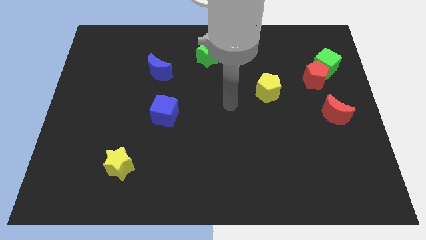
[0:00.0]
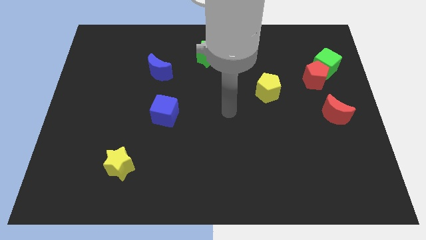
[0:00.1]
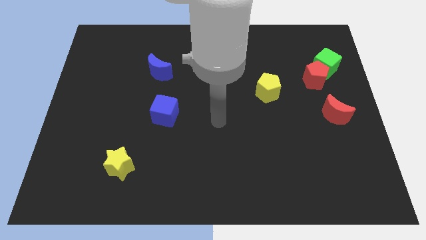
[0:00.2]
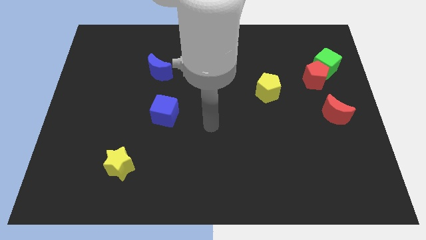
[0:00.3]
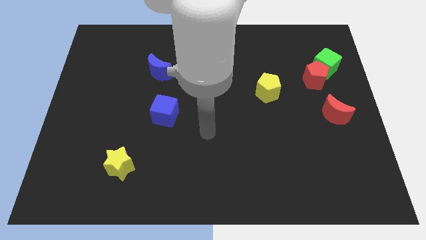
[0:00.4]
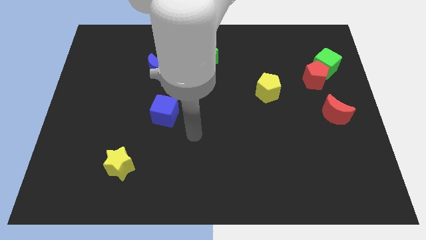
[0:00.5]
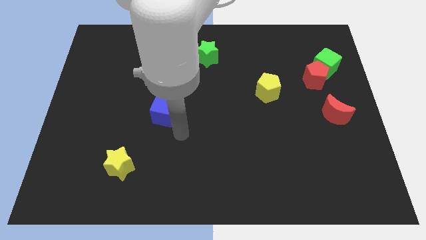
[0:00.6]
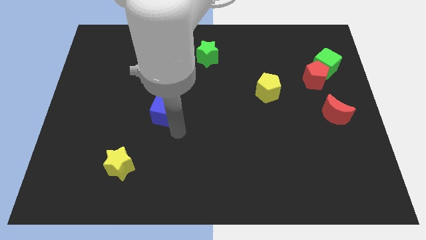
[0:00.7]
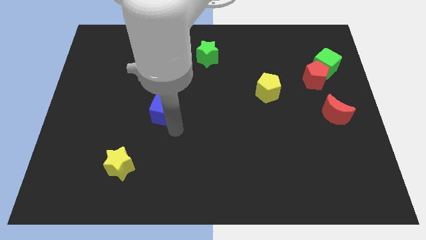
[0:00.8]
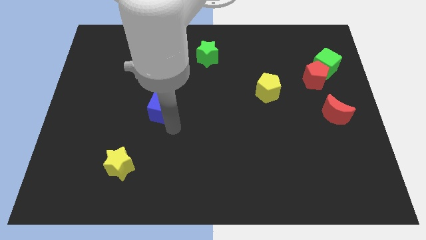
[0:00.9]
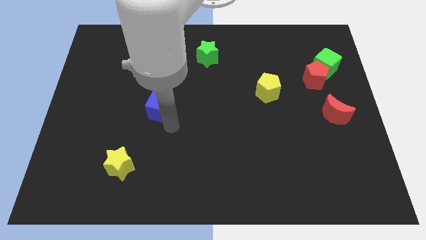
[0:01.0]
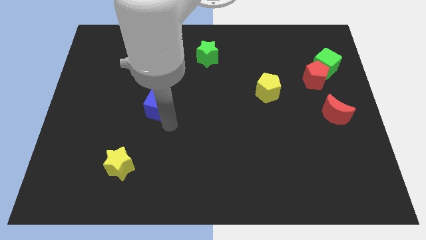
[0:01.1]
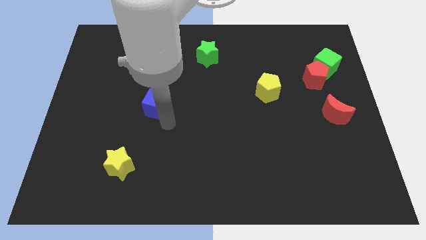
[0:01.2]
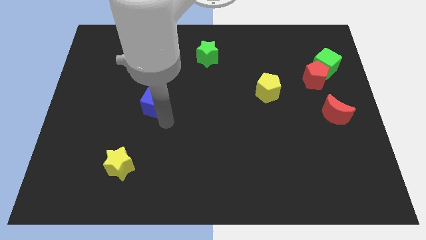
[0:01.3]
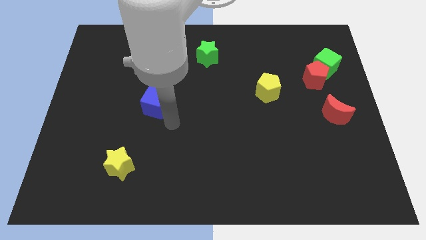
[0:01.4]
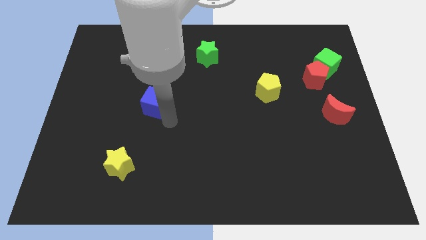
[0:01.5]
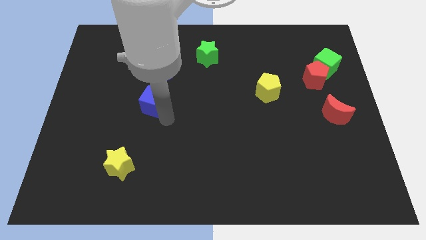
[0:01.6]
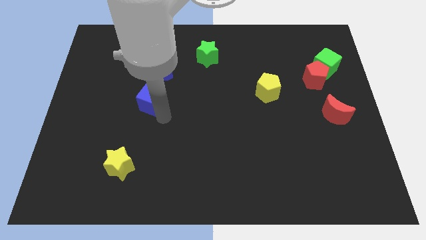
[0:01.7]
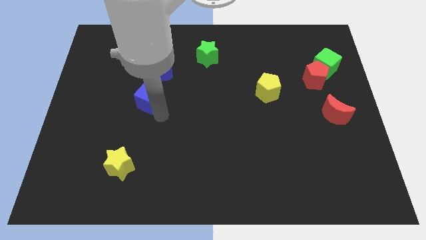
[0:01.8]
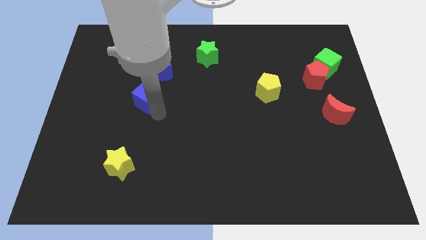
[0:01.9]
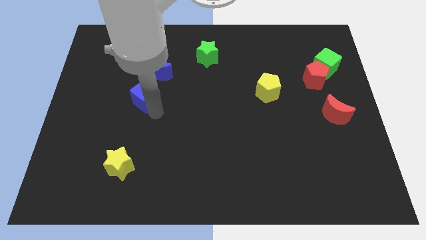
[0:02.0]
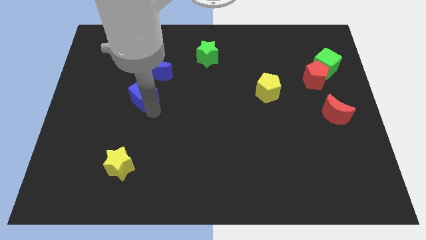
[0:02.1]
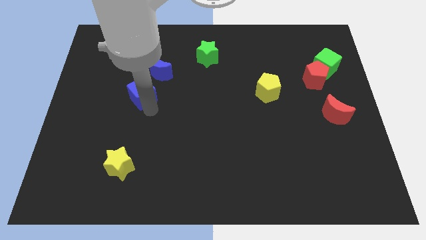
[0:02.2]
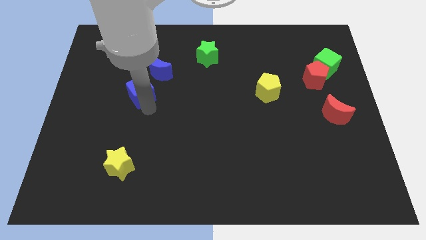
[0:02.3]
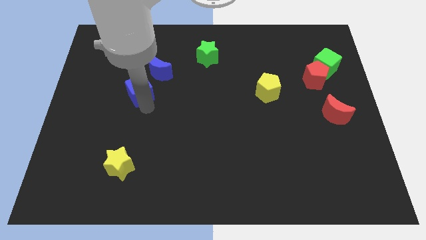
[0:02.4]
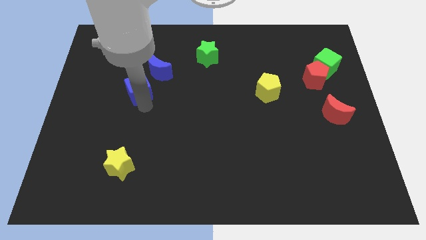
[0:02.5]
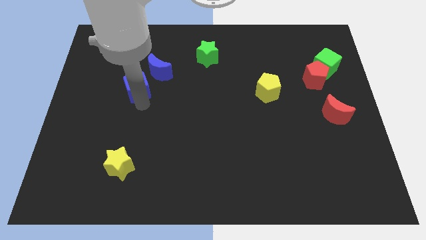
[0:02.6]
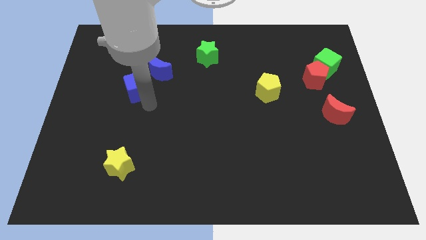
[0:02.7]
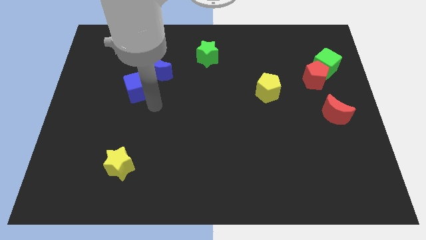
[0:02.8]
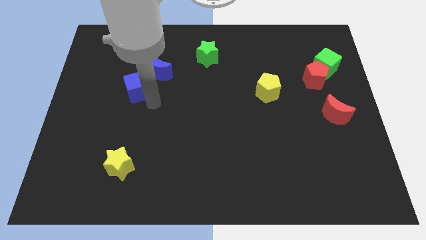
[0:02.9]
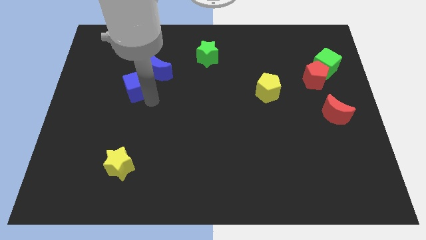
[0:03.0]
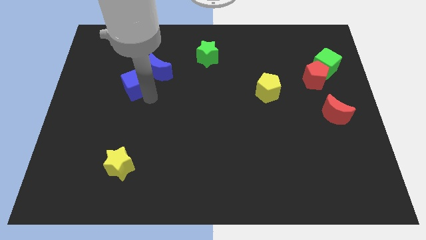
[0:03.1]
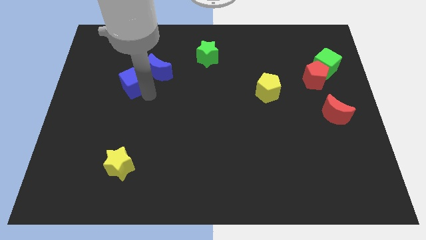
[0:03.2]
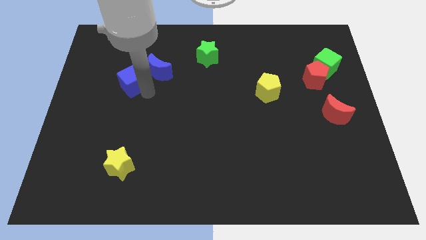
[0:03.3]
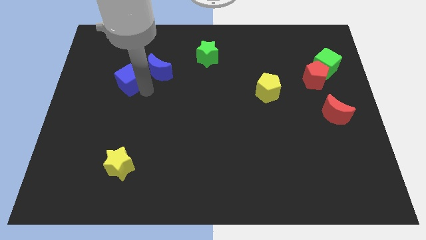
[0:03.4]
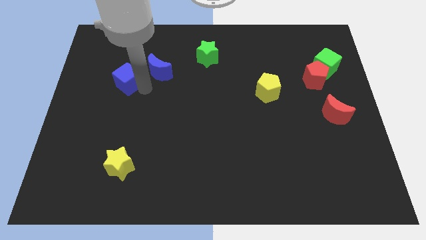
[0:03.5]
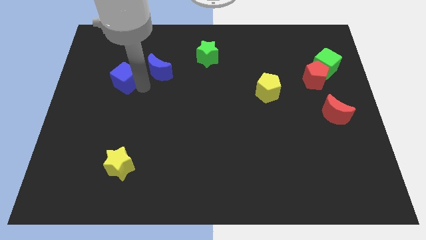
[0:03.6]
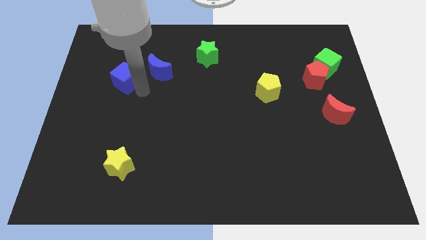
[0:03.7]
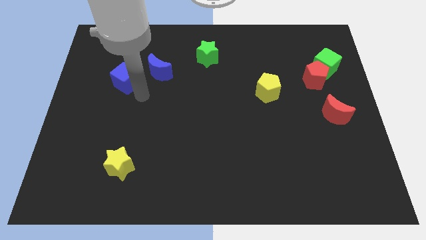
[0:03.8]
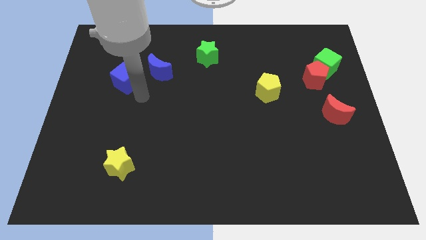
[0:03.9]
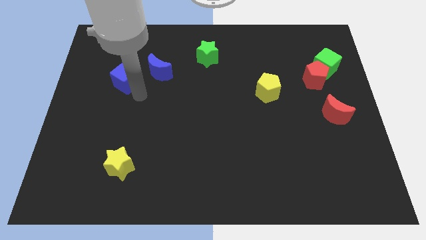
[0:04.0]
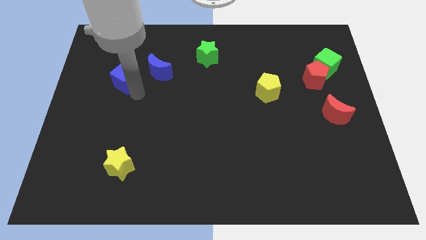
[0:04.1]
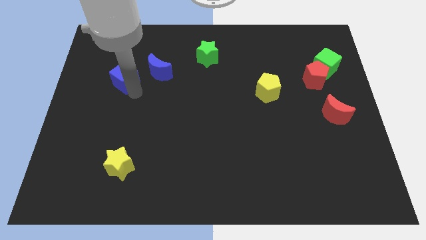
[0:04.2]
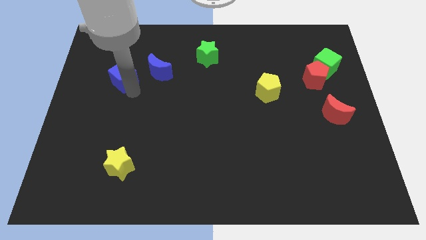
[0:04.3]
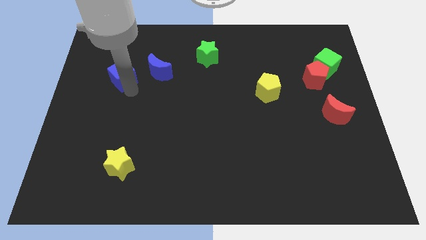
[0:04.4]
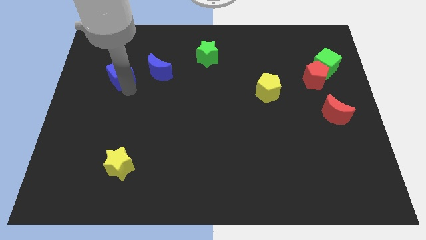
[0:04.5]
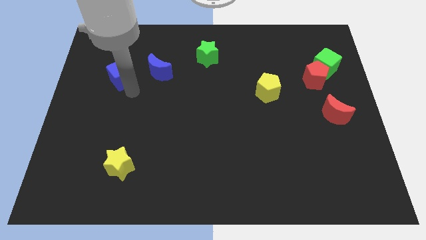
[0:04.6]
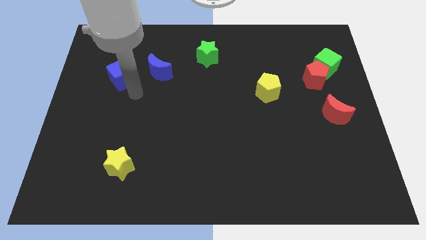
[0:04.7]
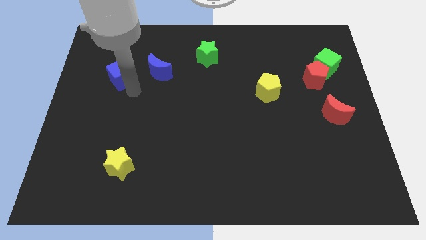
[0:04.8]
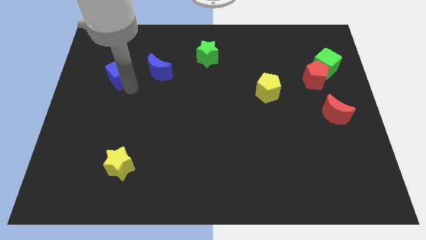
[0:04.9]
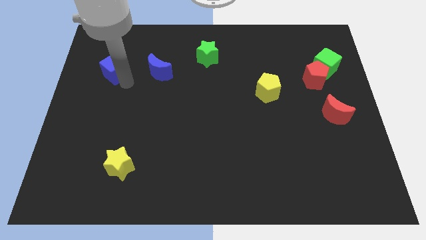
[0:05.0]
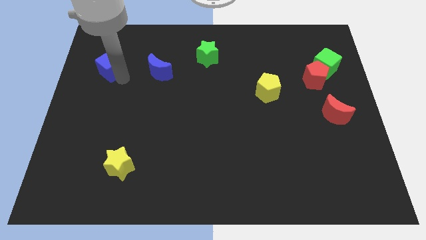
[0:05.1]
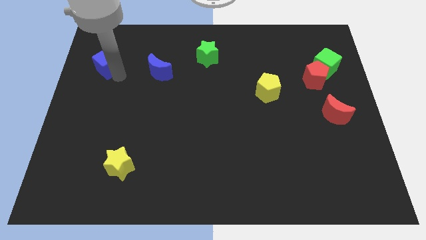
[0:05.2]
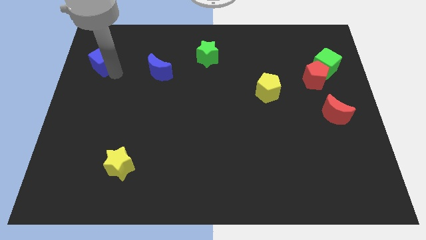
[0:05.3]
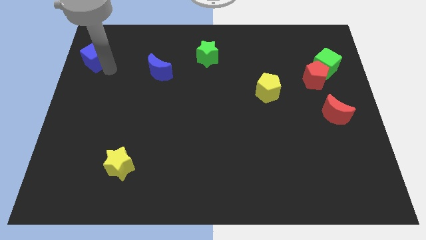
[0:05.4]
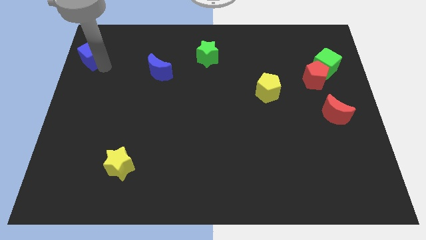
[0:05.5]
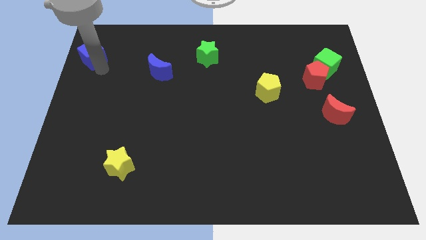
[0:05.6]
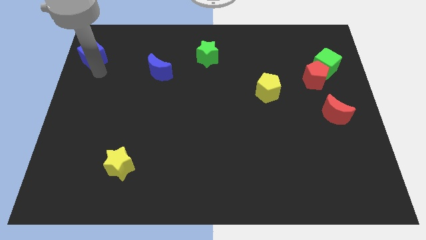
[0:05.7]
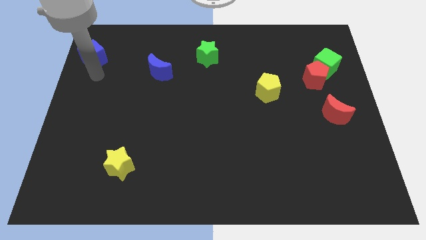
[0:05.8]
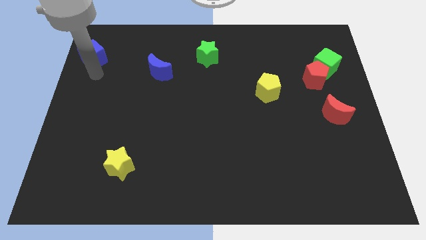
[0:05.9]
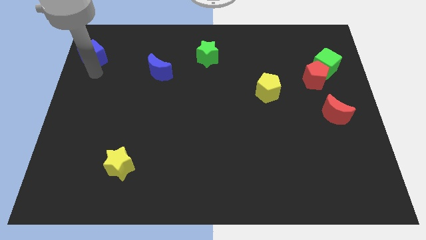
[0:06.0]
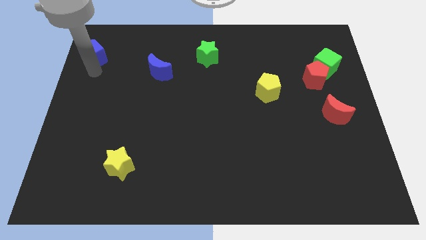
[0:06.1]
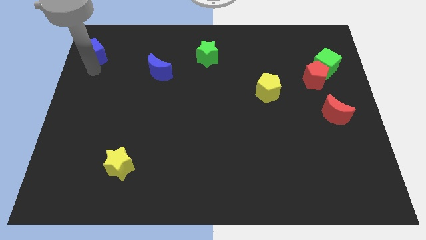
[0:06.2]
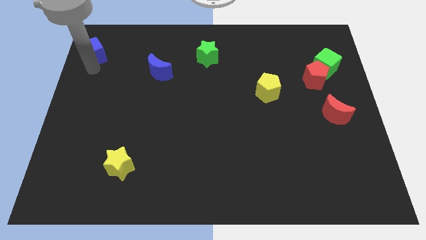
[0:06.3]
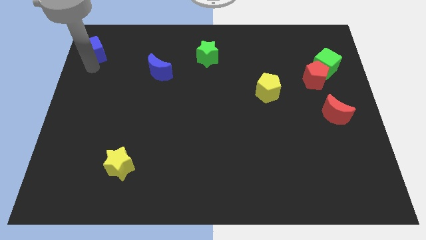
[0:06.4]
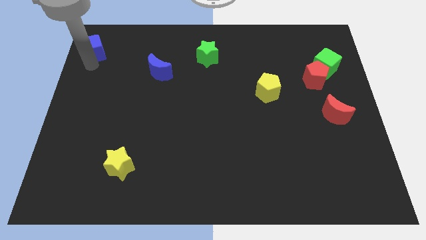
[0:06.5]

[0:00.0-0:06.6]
slide the blue cube to the upper left corner
